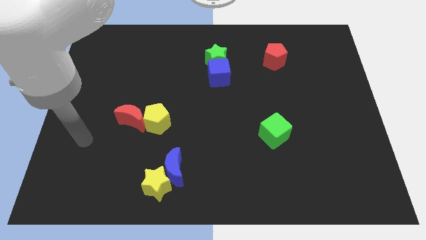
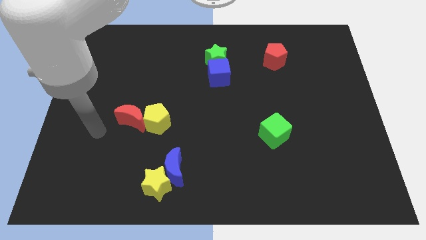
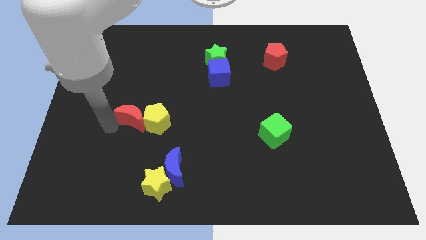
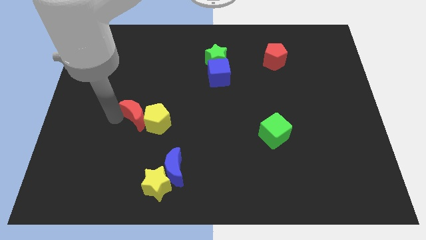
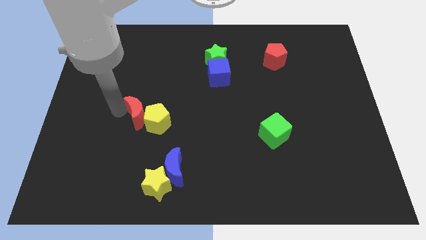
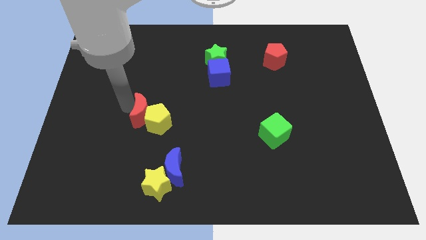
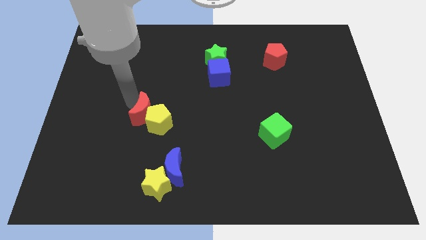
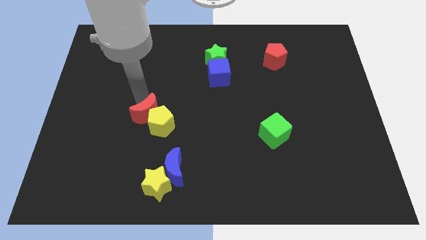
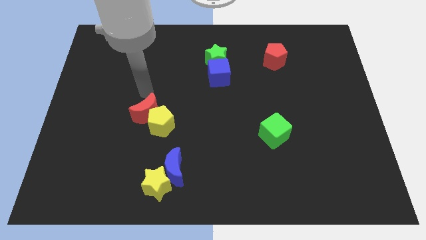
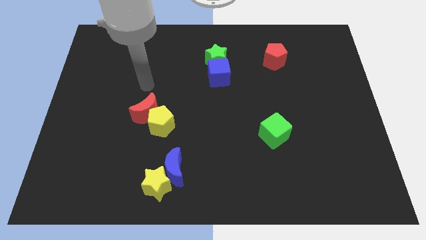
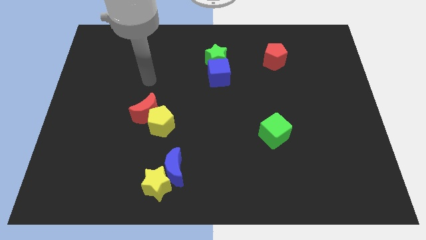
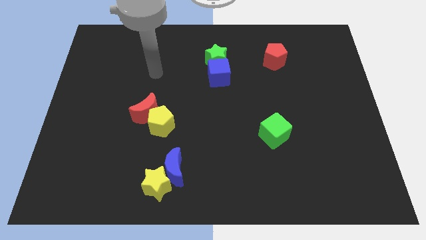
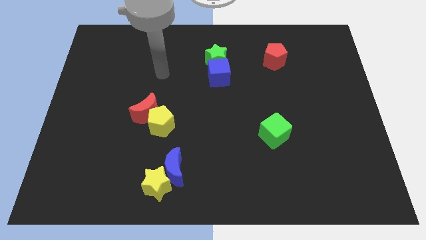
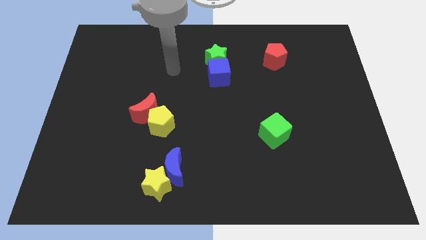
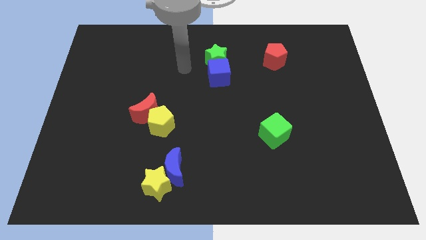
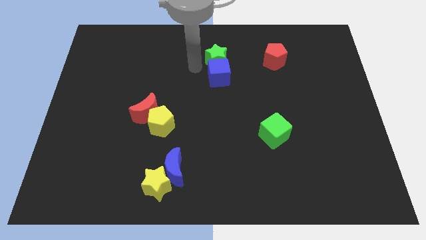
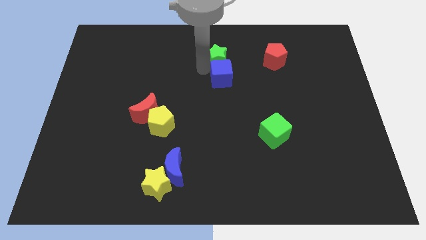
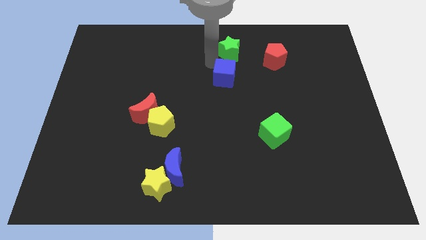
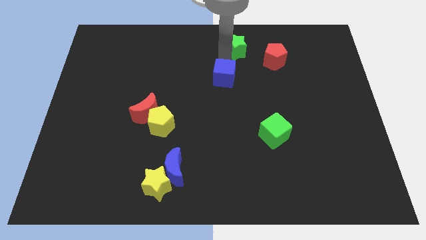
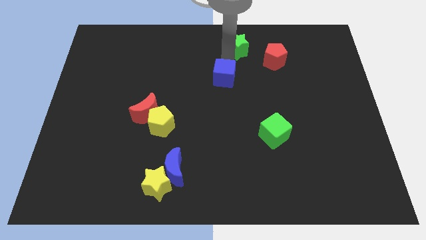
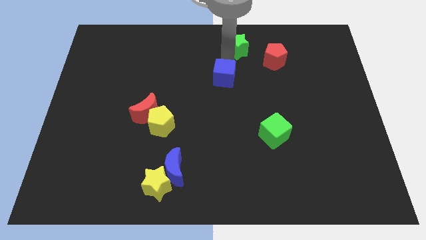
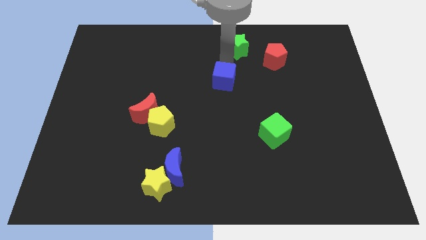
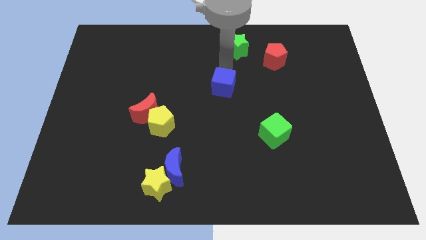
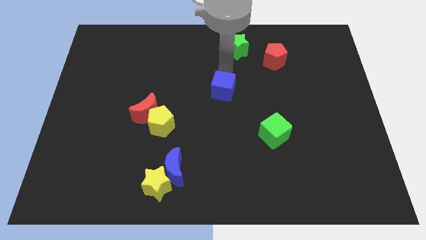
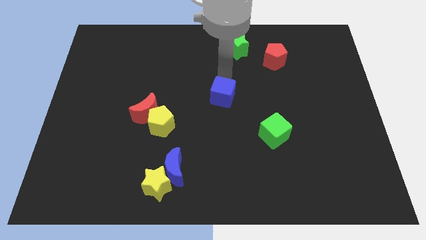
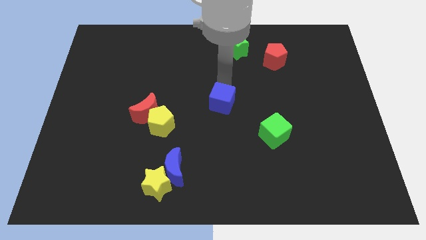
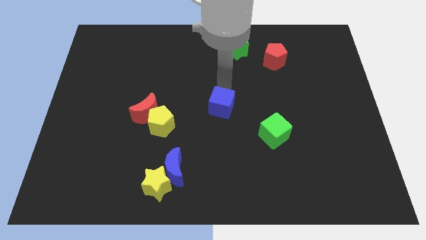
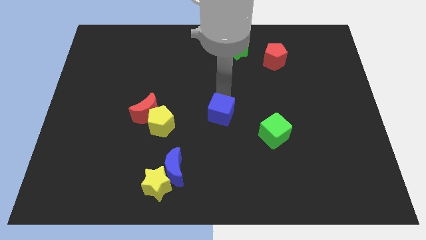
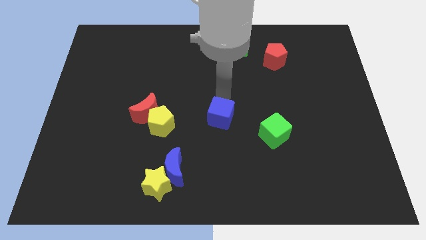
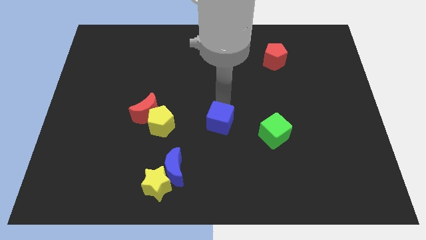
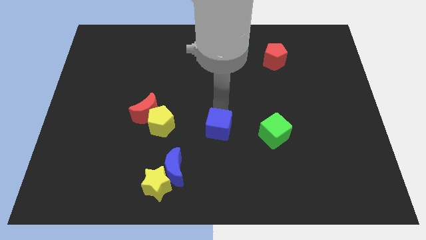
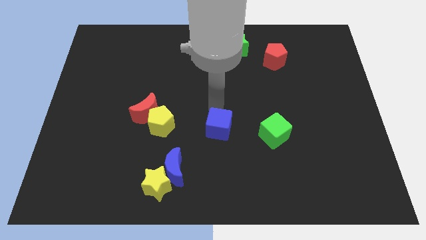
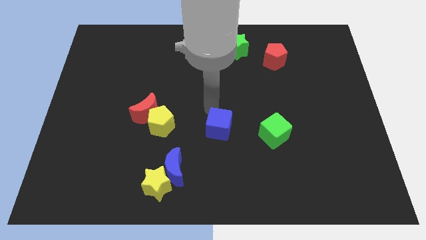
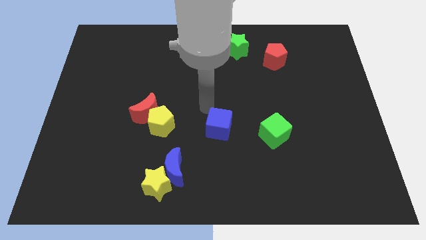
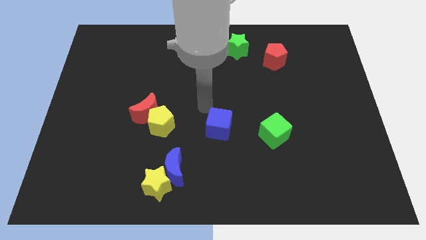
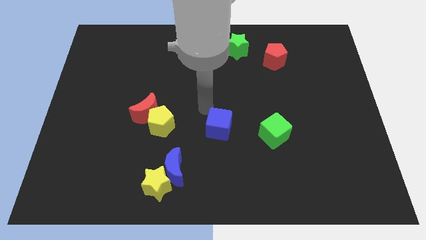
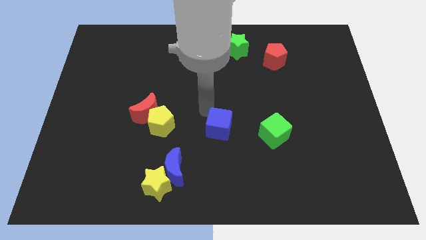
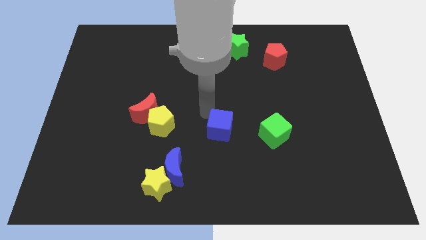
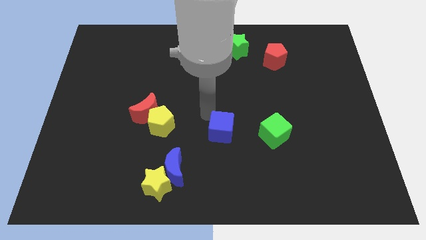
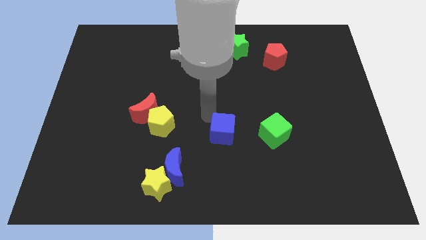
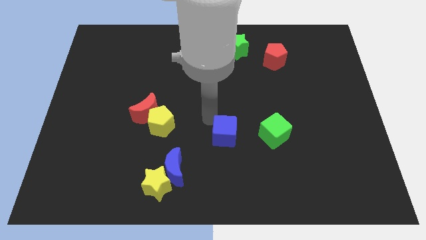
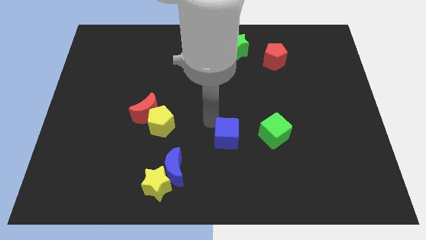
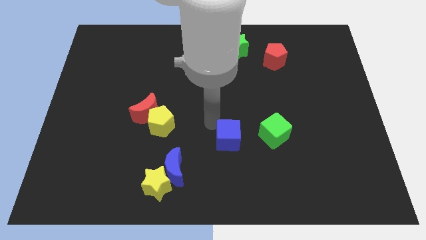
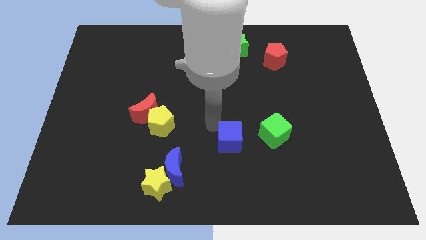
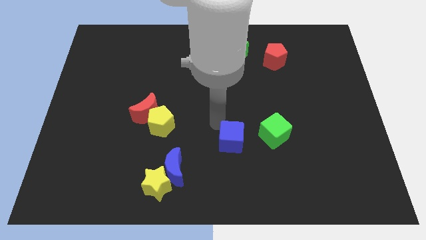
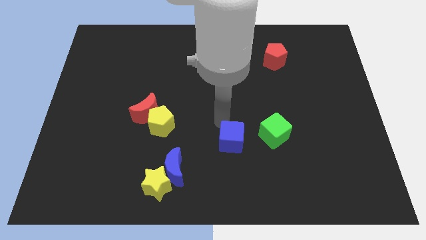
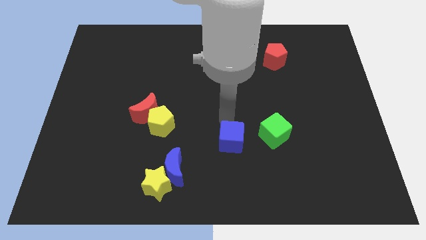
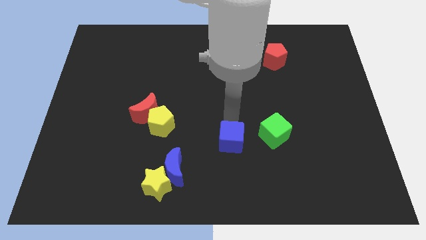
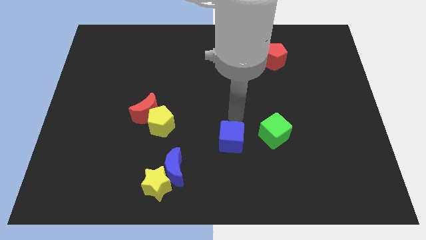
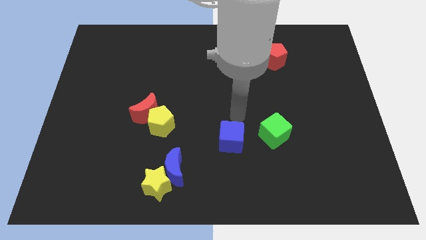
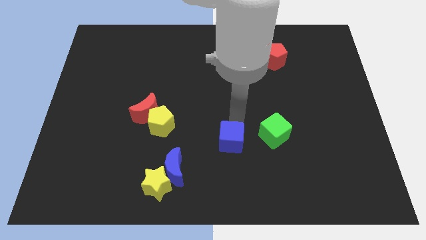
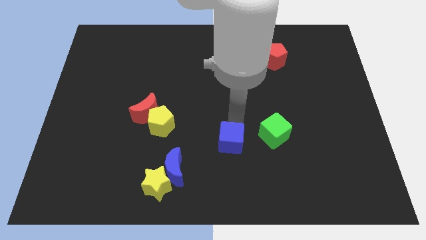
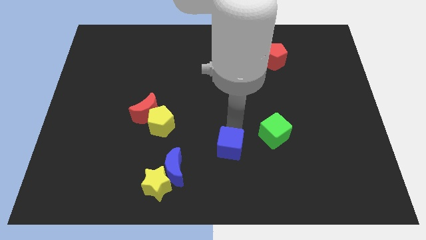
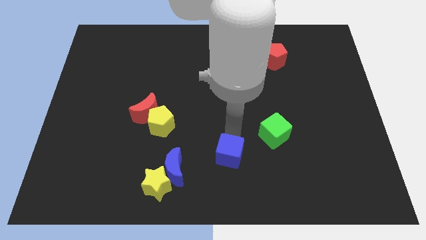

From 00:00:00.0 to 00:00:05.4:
put the blue cube right of the blue moon

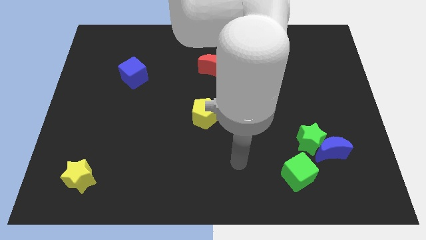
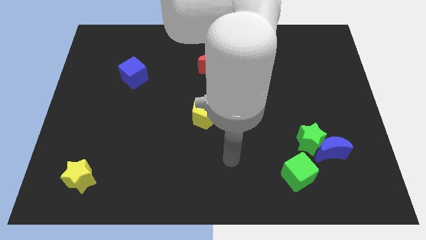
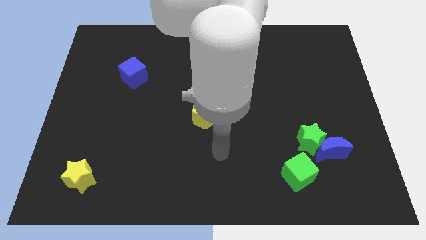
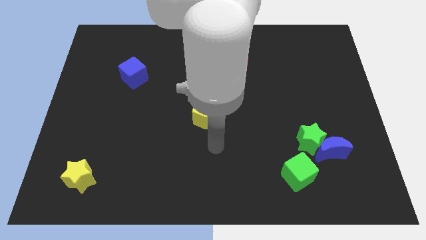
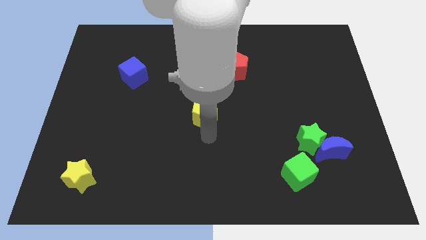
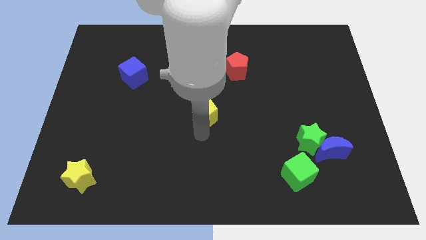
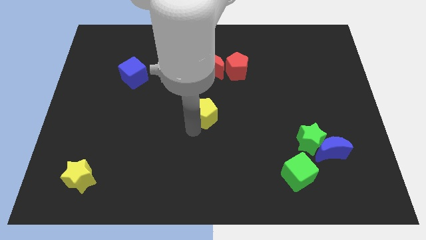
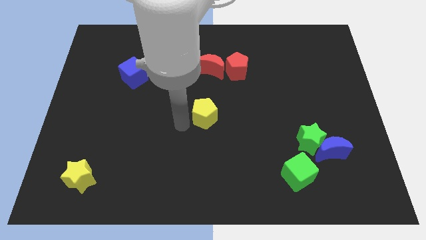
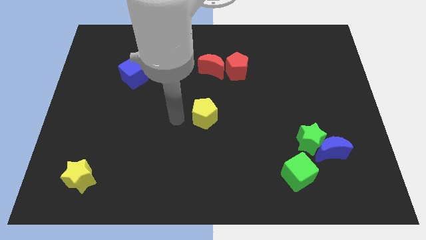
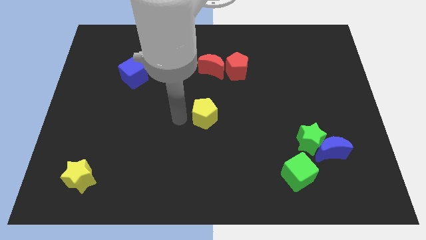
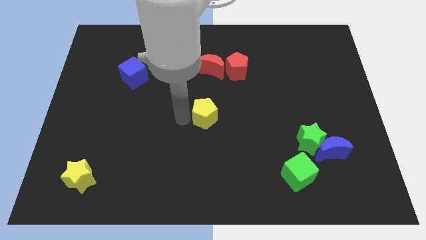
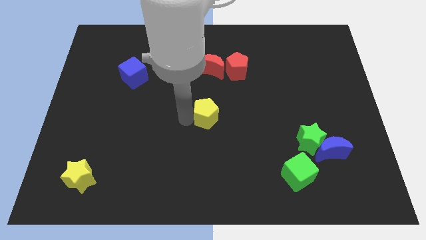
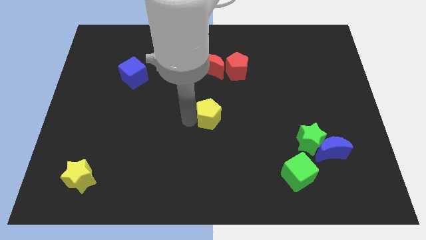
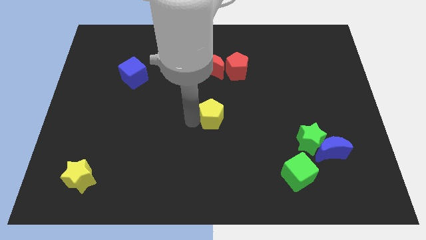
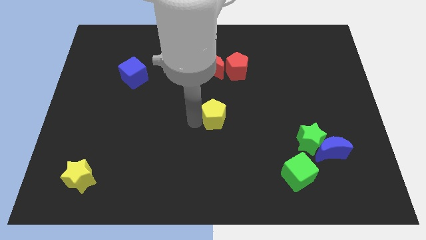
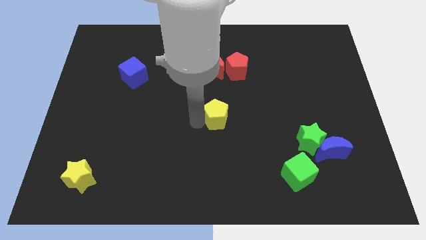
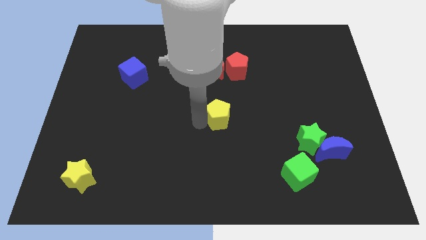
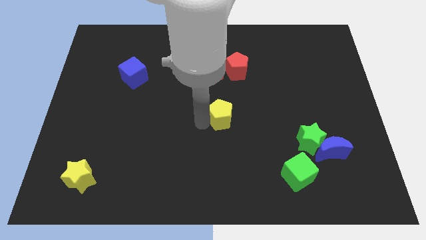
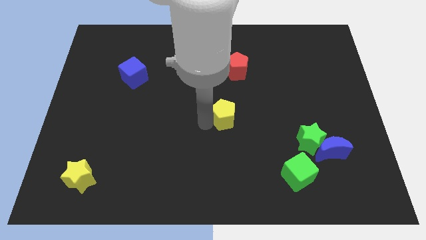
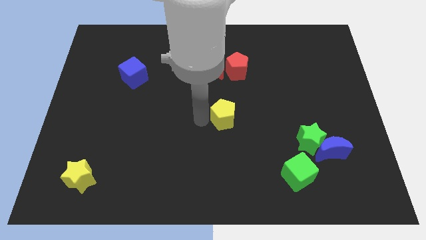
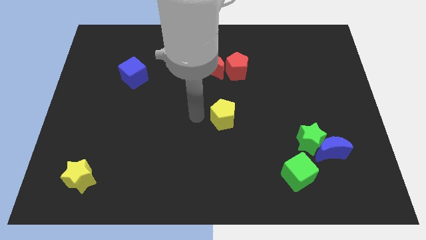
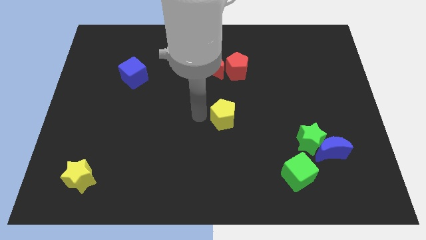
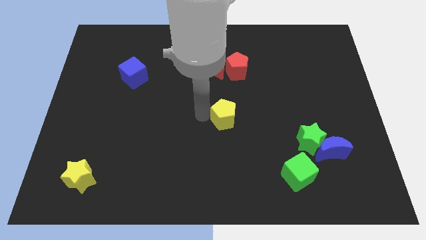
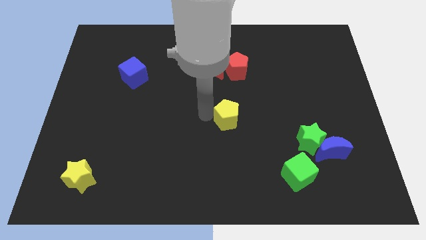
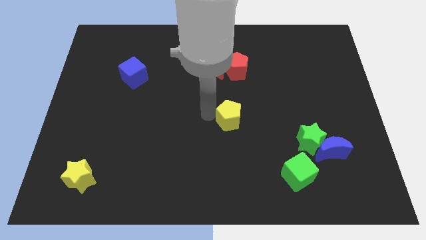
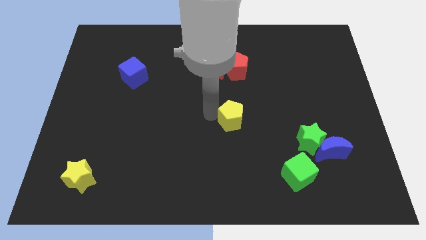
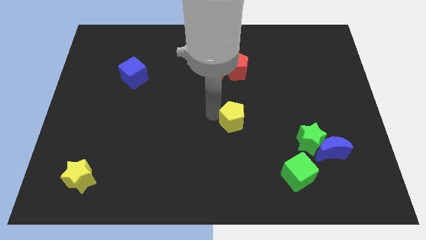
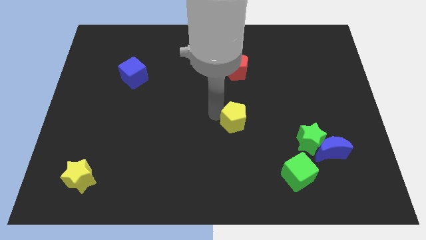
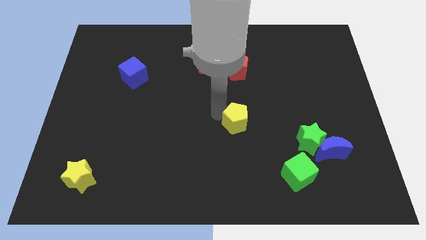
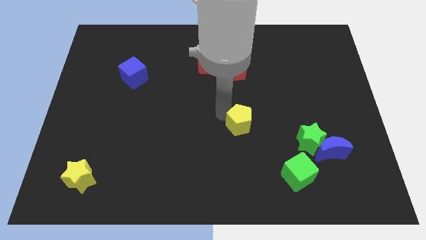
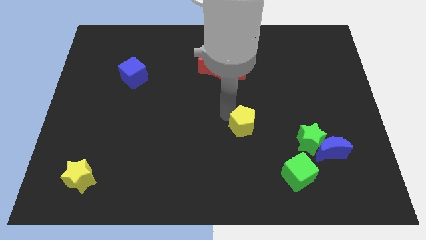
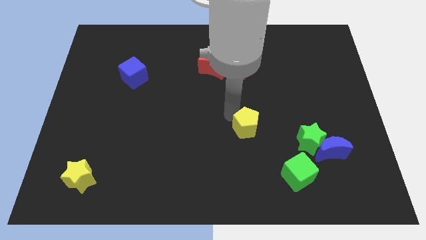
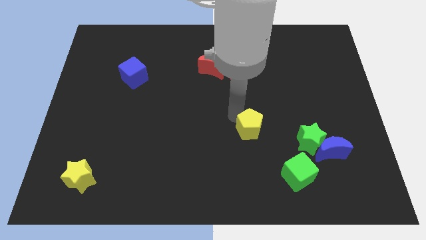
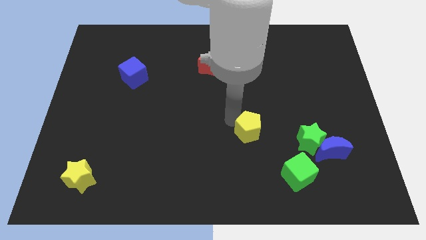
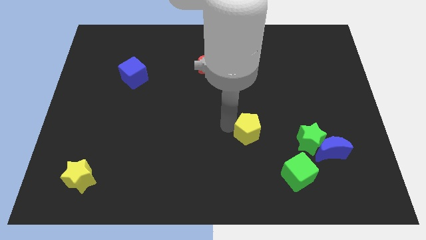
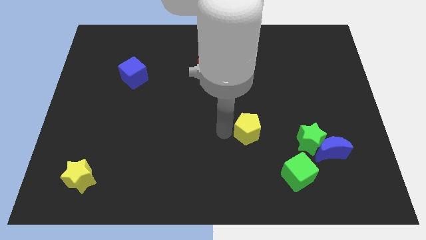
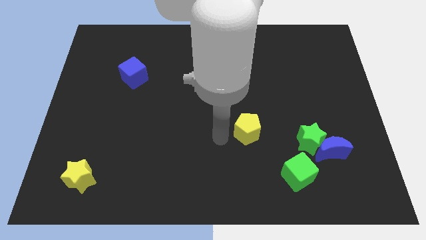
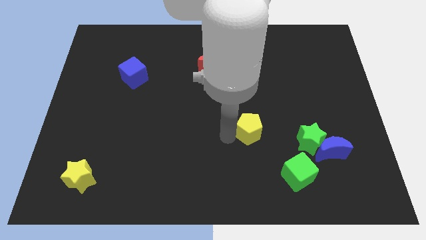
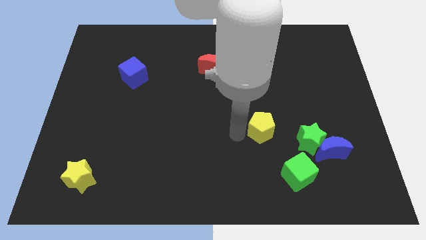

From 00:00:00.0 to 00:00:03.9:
move the yellow pentagon diagonally up and to the left of the green star
